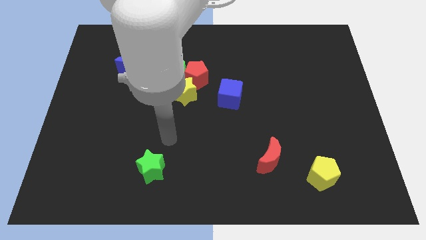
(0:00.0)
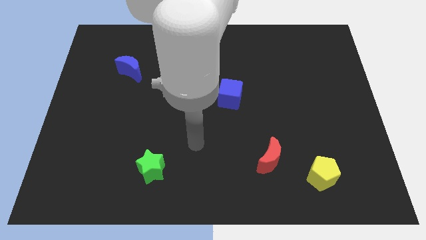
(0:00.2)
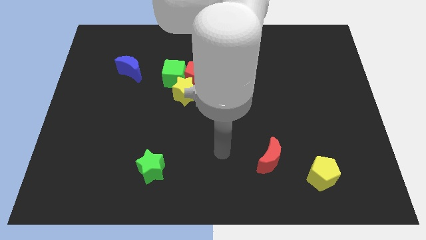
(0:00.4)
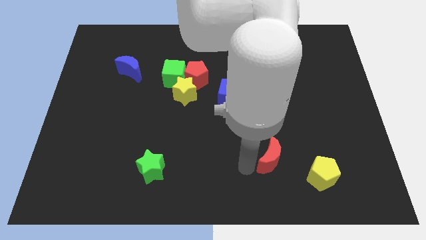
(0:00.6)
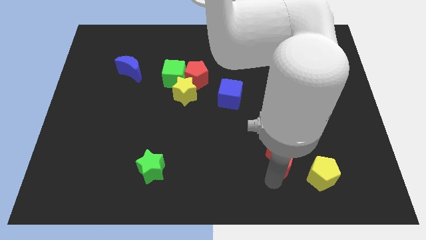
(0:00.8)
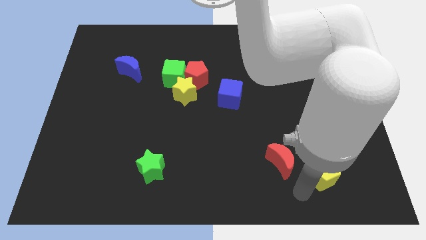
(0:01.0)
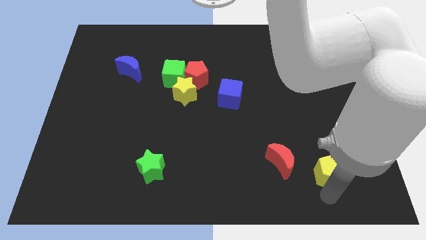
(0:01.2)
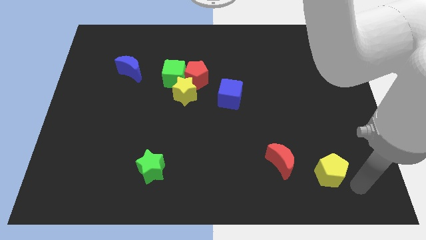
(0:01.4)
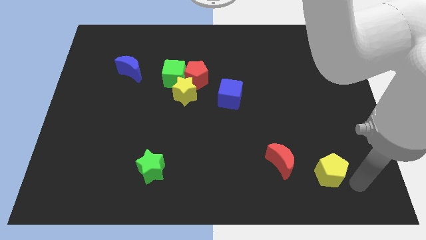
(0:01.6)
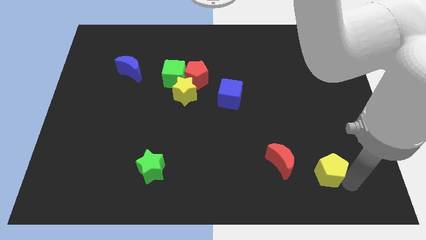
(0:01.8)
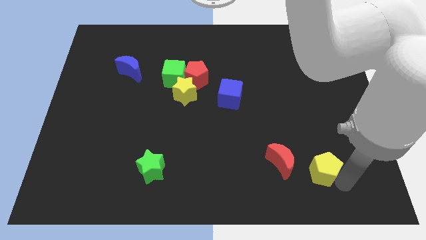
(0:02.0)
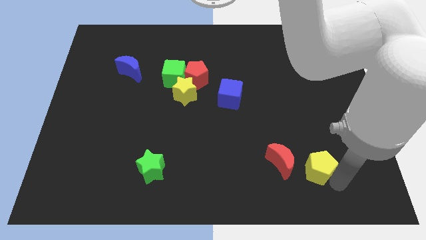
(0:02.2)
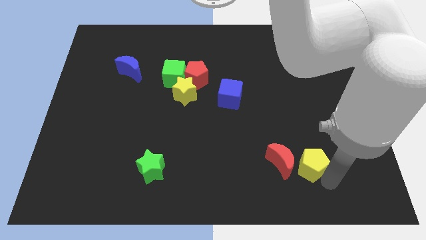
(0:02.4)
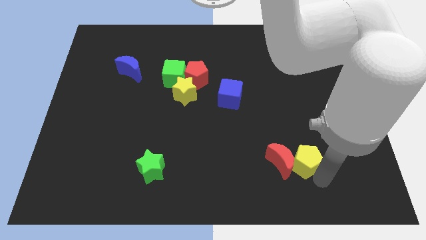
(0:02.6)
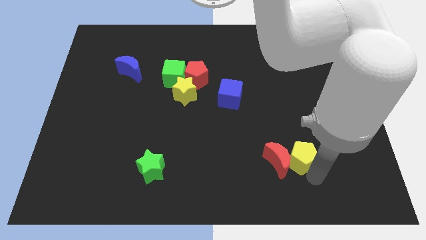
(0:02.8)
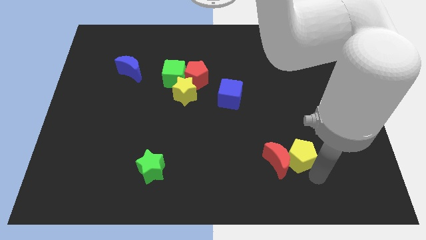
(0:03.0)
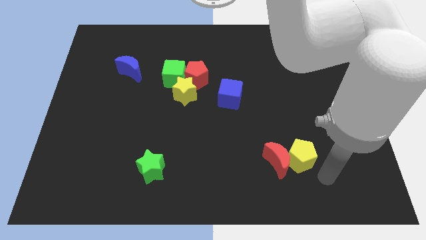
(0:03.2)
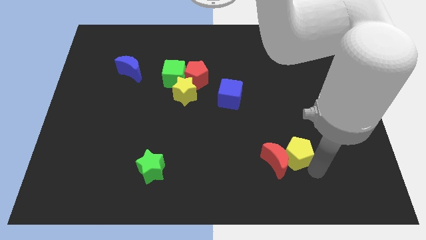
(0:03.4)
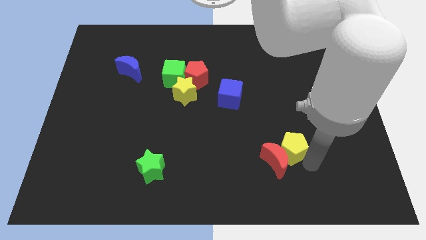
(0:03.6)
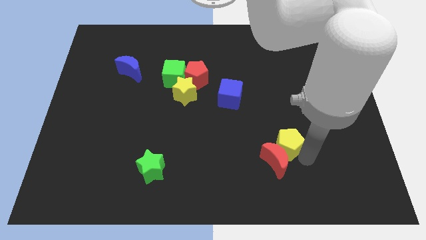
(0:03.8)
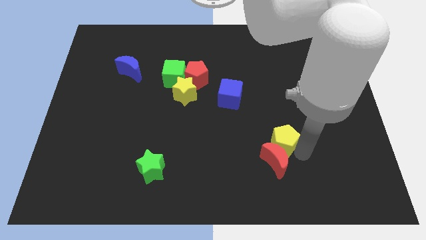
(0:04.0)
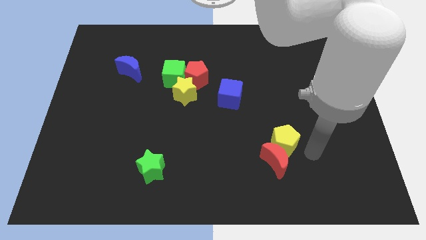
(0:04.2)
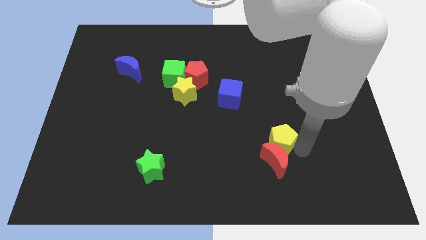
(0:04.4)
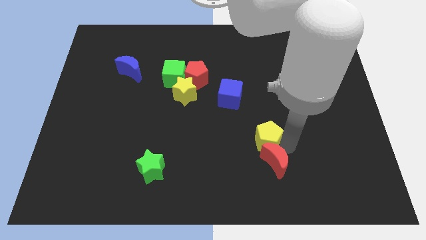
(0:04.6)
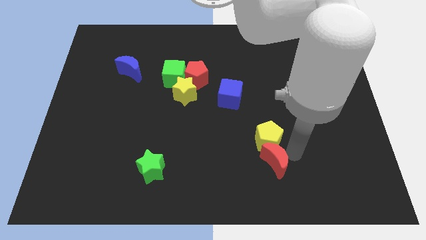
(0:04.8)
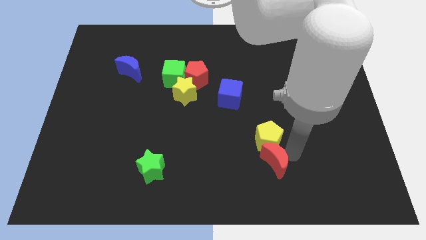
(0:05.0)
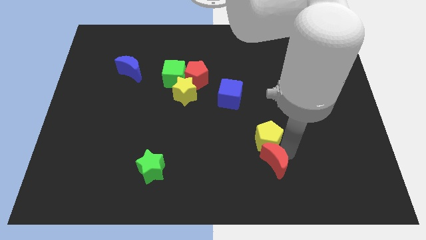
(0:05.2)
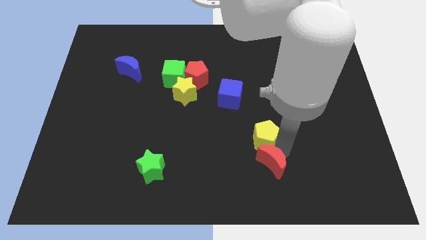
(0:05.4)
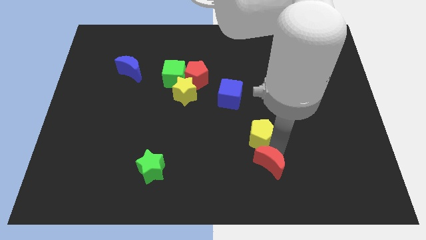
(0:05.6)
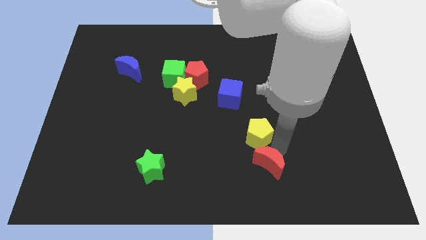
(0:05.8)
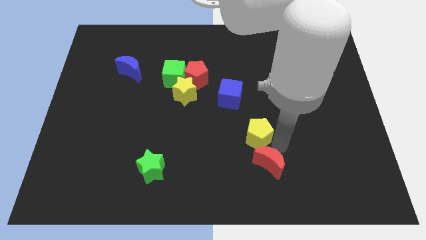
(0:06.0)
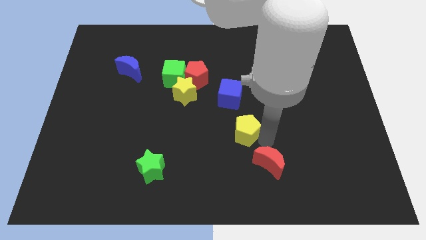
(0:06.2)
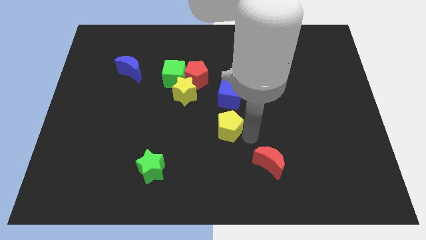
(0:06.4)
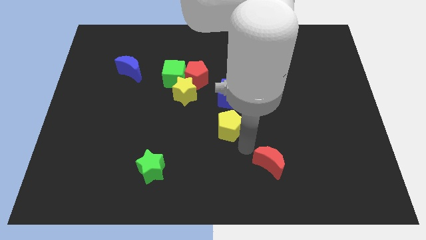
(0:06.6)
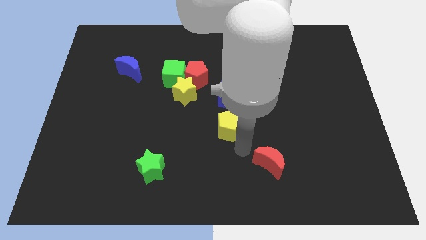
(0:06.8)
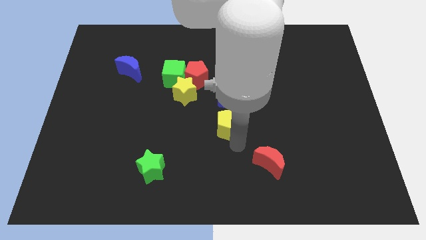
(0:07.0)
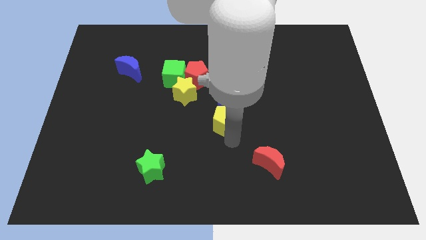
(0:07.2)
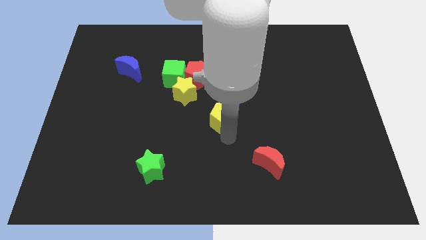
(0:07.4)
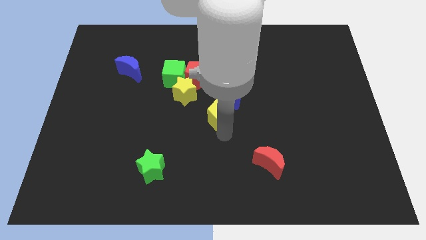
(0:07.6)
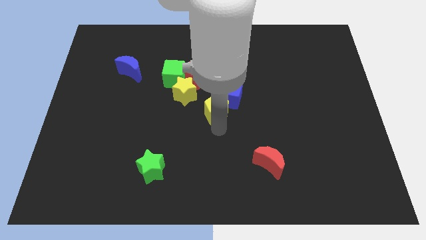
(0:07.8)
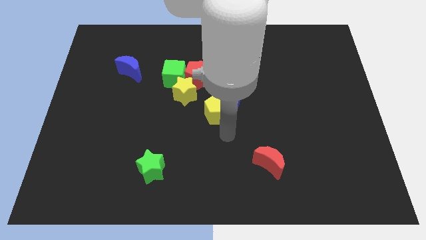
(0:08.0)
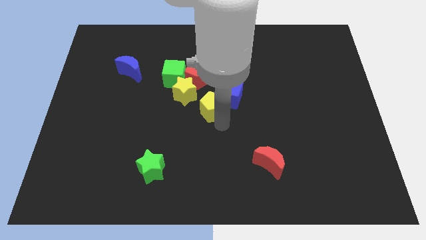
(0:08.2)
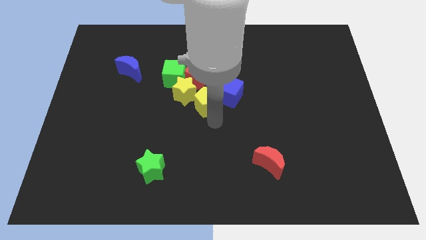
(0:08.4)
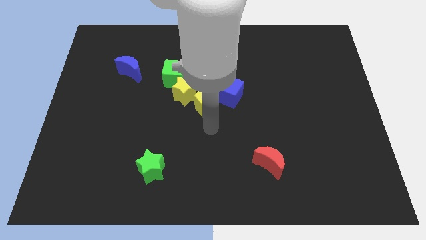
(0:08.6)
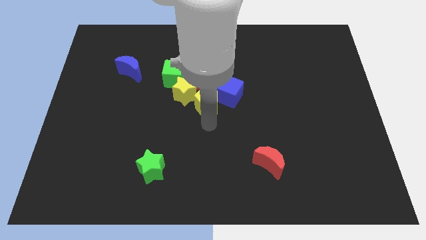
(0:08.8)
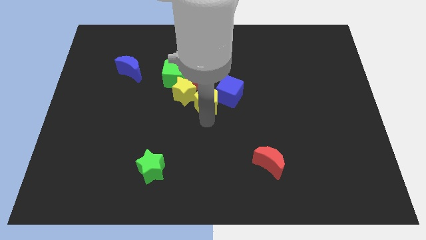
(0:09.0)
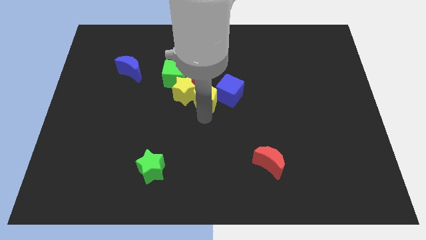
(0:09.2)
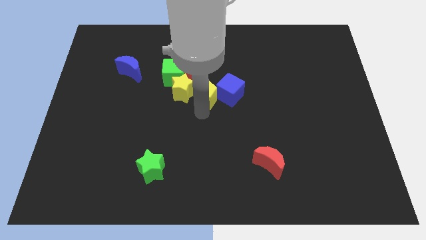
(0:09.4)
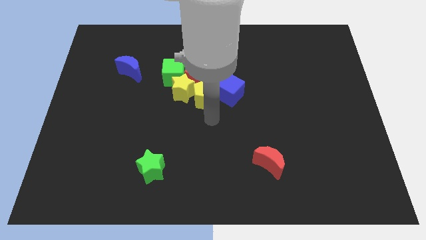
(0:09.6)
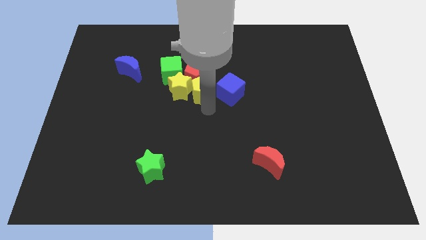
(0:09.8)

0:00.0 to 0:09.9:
move the yellow pentagon to the red pentagon

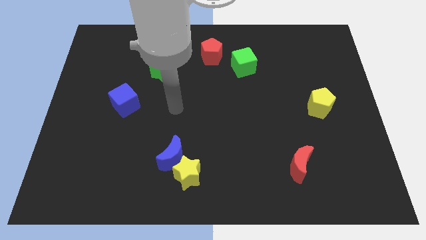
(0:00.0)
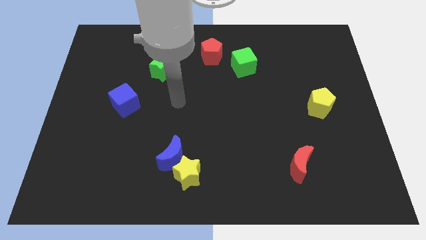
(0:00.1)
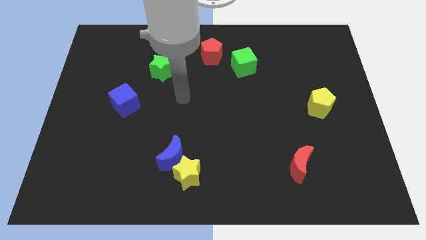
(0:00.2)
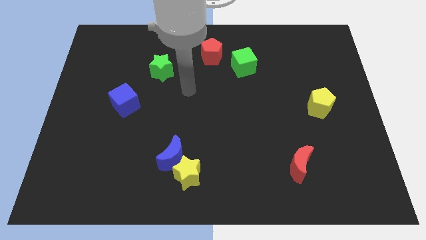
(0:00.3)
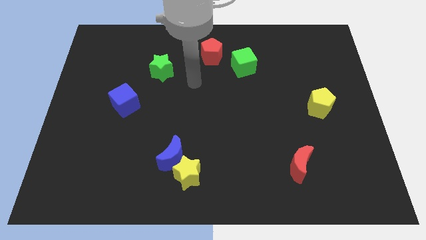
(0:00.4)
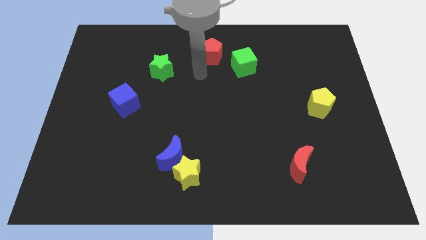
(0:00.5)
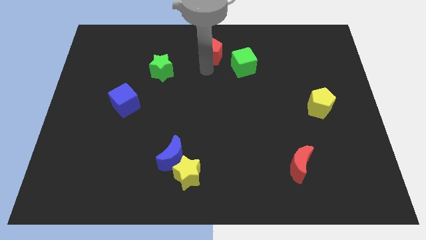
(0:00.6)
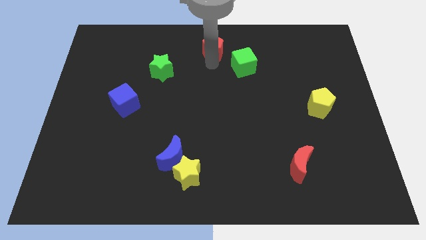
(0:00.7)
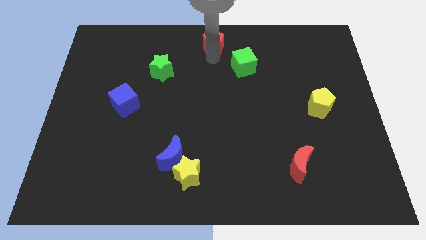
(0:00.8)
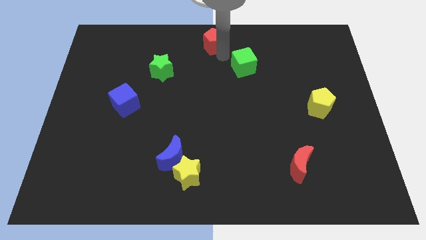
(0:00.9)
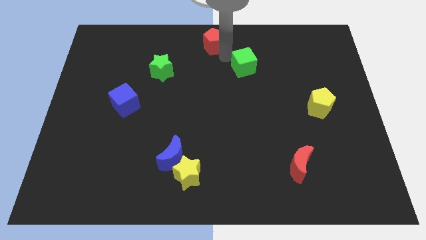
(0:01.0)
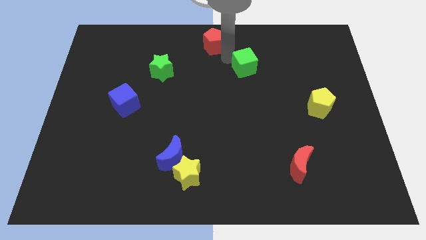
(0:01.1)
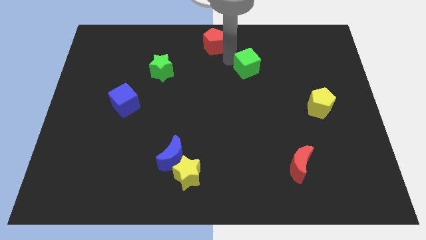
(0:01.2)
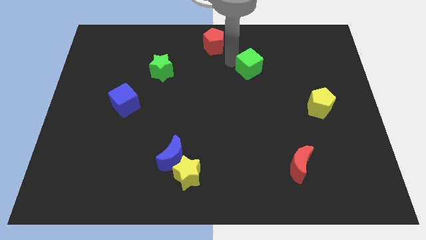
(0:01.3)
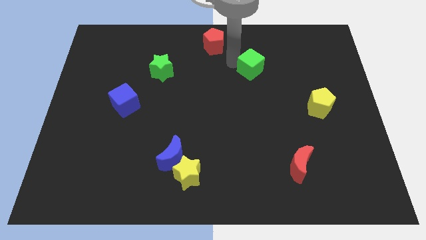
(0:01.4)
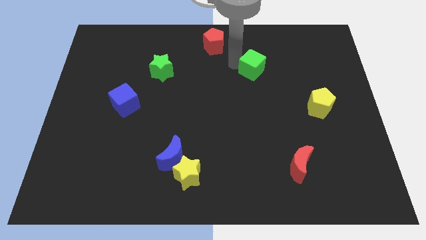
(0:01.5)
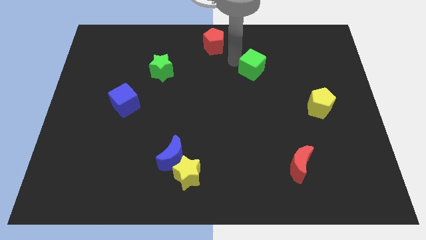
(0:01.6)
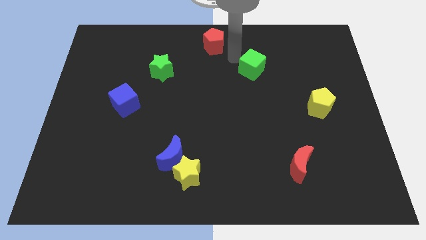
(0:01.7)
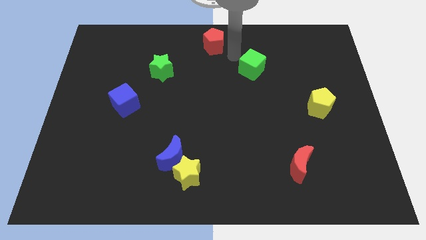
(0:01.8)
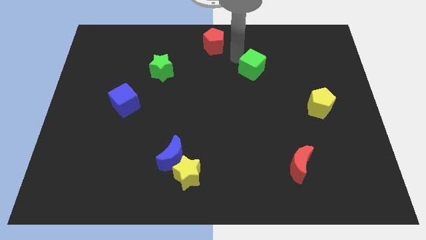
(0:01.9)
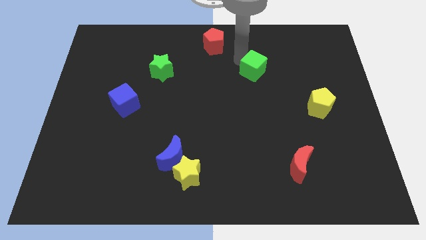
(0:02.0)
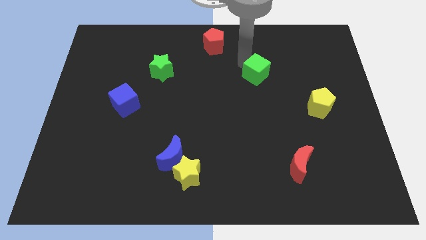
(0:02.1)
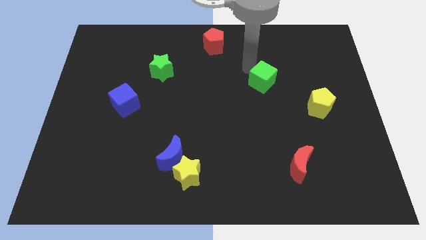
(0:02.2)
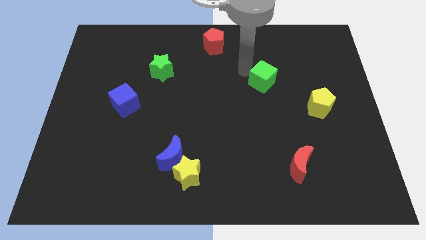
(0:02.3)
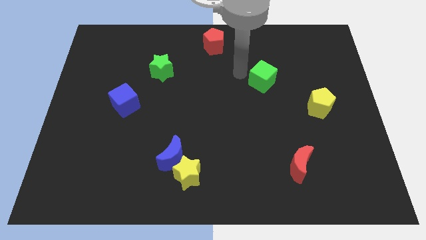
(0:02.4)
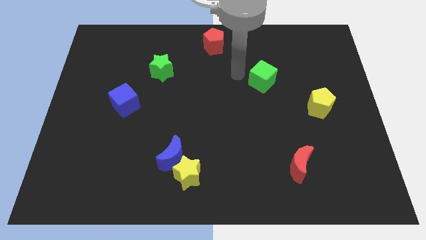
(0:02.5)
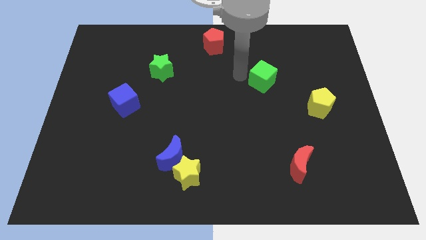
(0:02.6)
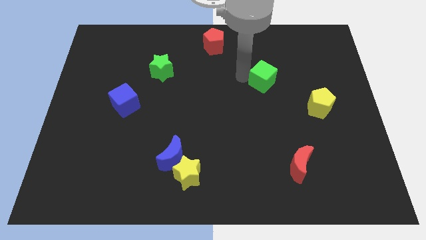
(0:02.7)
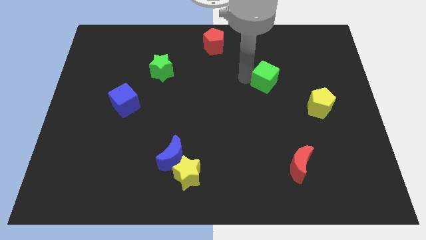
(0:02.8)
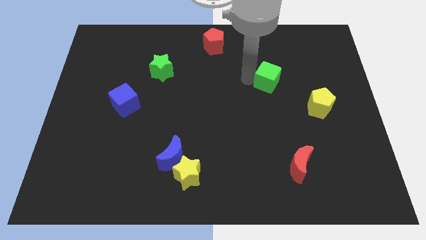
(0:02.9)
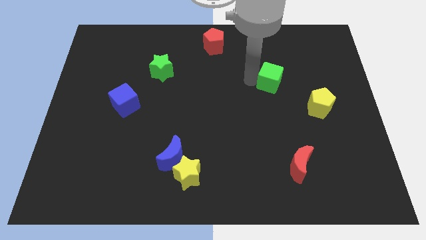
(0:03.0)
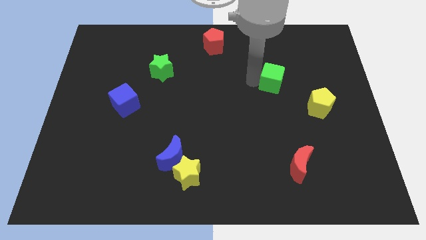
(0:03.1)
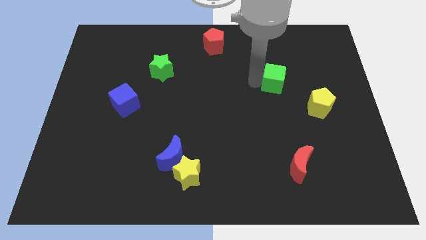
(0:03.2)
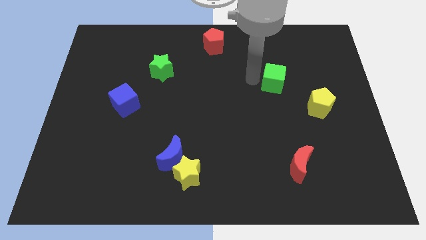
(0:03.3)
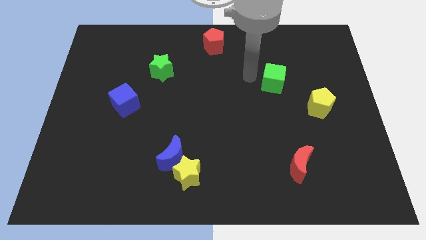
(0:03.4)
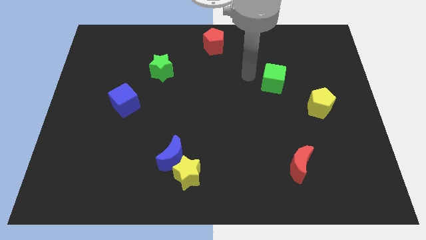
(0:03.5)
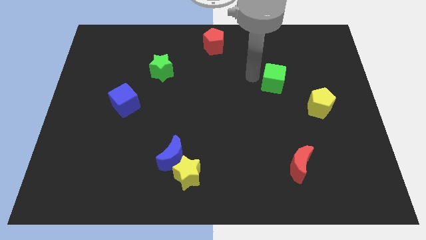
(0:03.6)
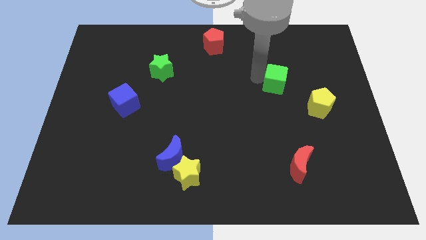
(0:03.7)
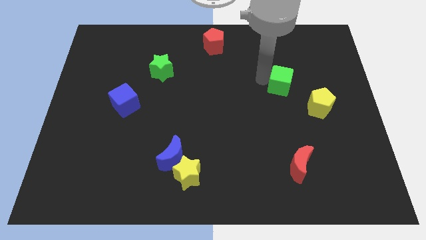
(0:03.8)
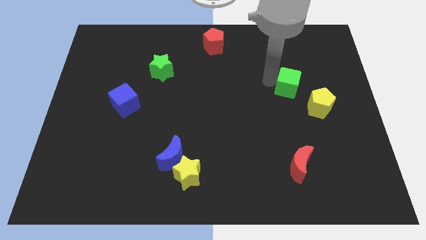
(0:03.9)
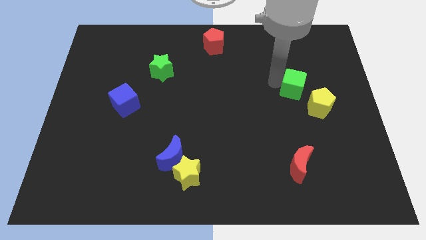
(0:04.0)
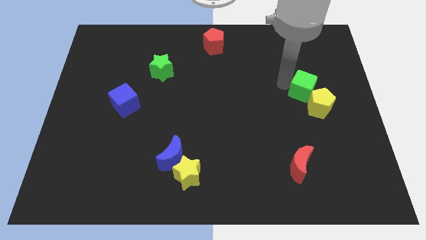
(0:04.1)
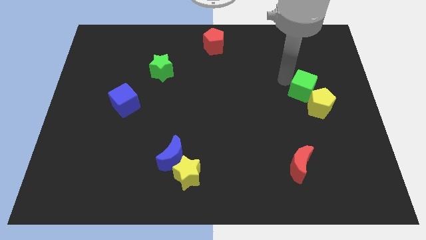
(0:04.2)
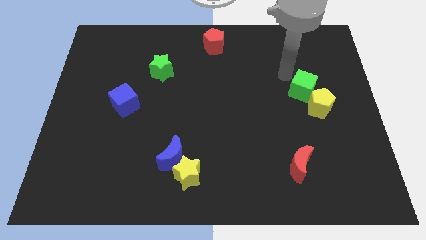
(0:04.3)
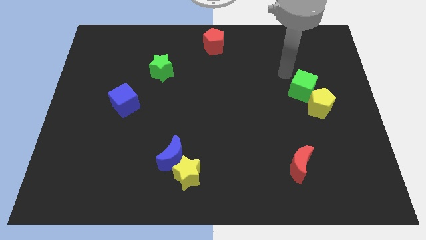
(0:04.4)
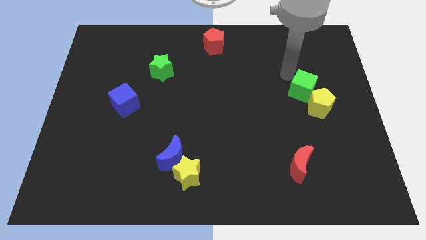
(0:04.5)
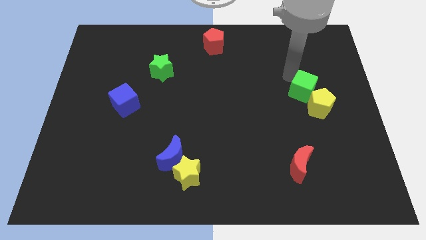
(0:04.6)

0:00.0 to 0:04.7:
push the green cube towards the yellow pentagon
